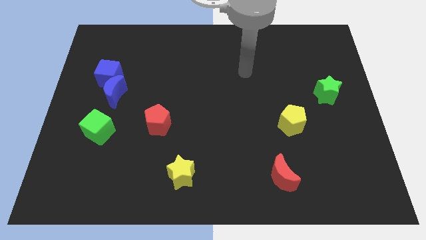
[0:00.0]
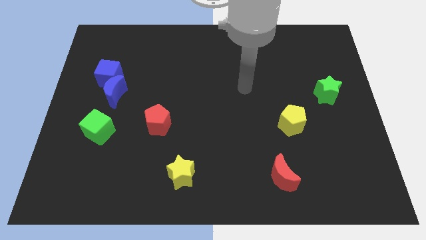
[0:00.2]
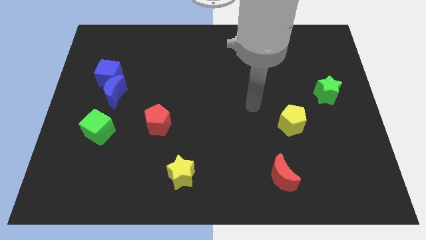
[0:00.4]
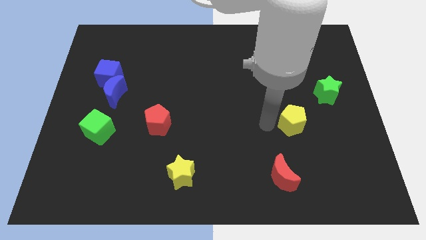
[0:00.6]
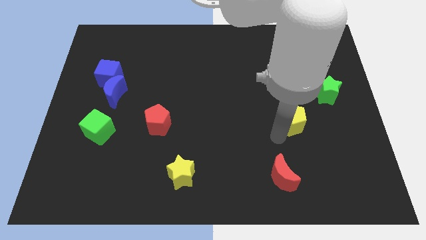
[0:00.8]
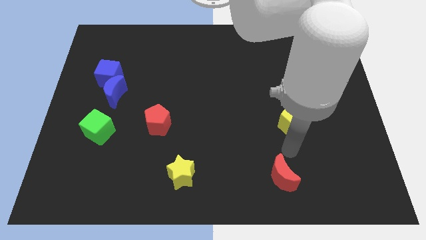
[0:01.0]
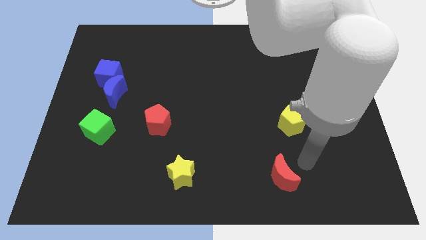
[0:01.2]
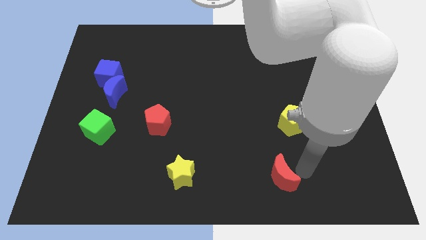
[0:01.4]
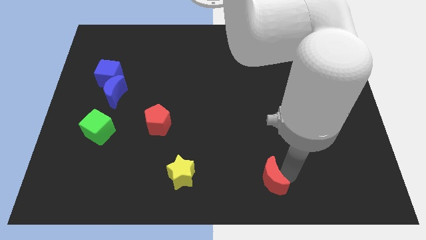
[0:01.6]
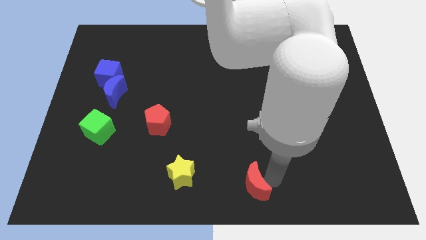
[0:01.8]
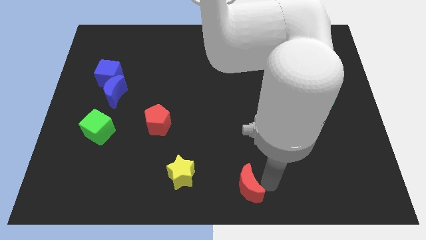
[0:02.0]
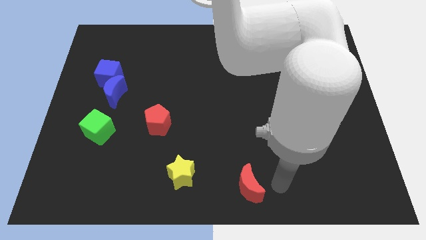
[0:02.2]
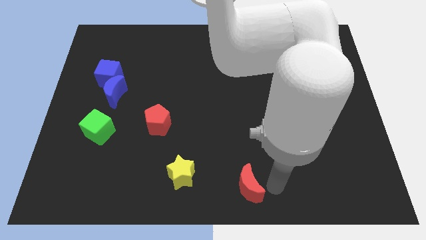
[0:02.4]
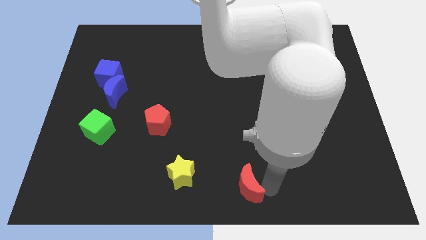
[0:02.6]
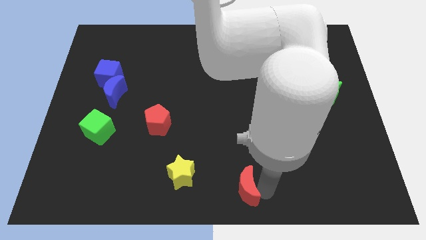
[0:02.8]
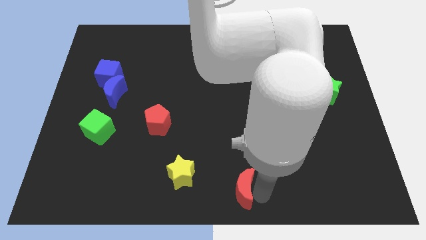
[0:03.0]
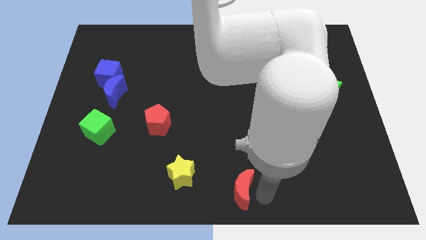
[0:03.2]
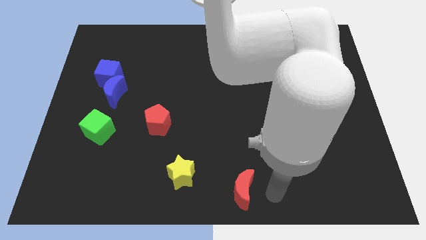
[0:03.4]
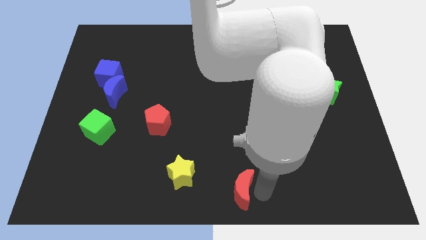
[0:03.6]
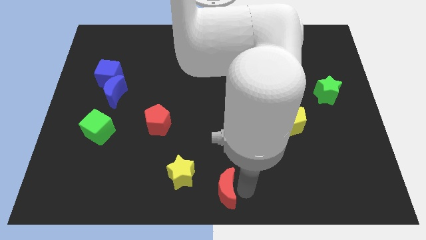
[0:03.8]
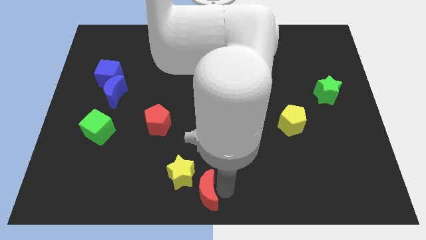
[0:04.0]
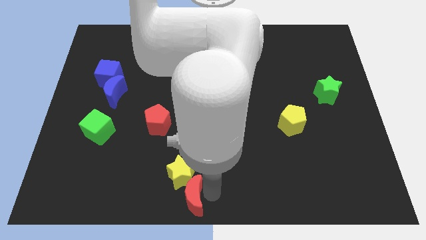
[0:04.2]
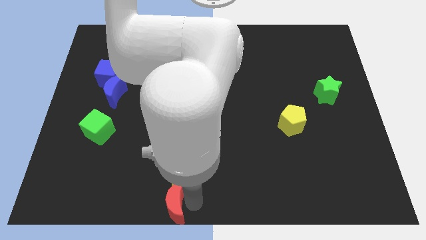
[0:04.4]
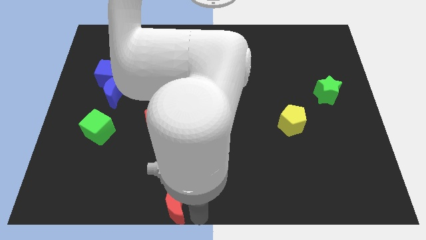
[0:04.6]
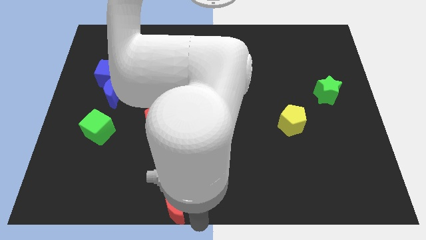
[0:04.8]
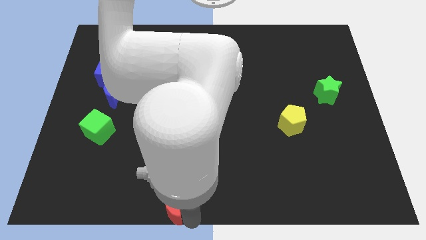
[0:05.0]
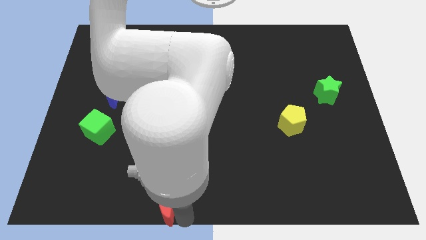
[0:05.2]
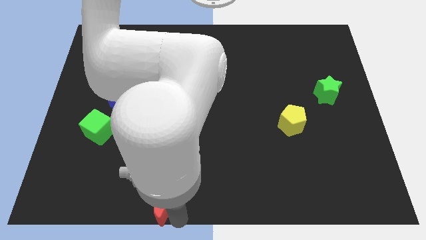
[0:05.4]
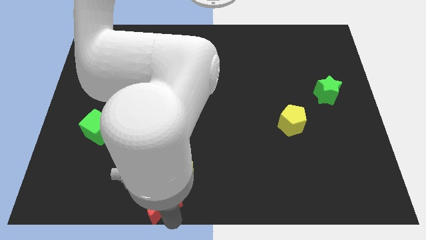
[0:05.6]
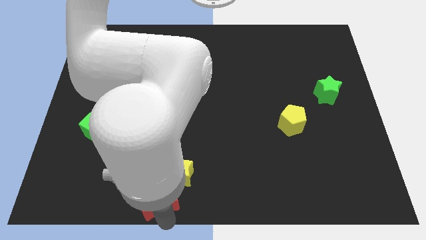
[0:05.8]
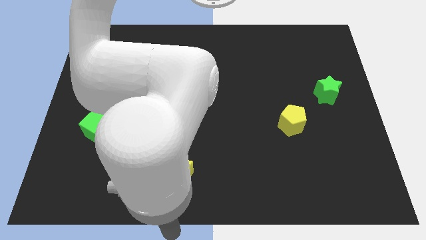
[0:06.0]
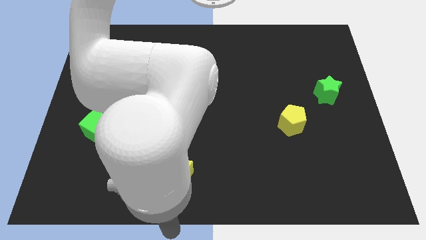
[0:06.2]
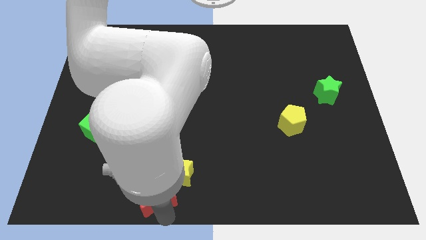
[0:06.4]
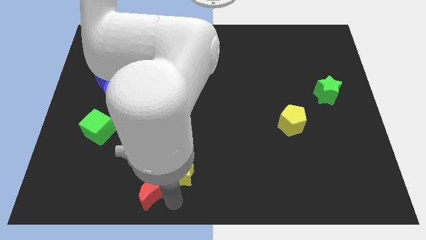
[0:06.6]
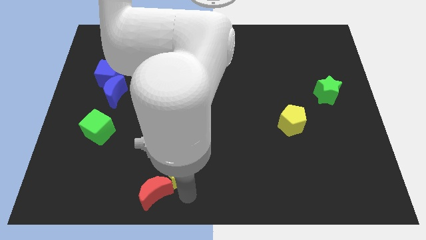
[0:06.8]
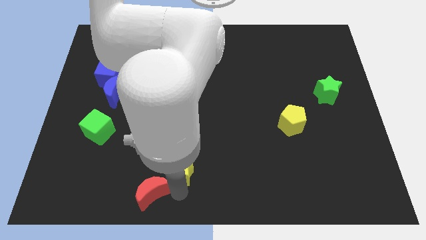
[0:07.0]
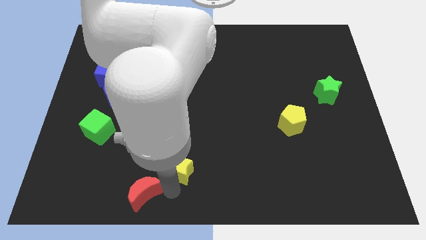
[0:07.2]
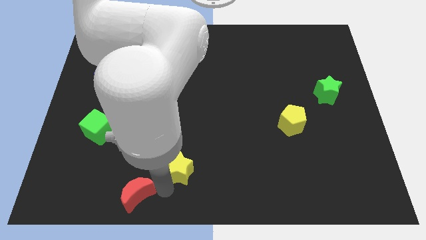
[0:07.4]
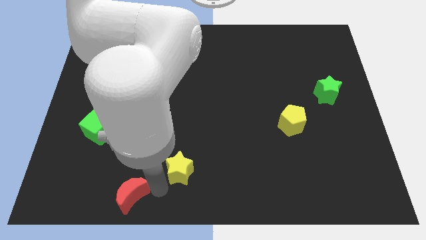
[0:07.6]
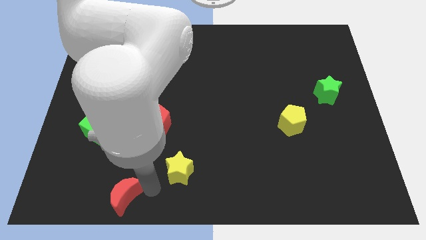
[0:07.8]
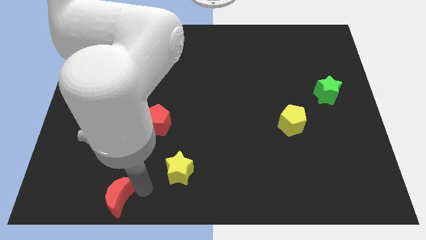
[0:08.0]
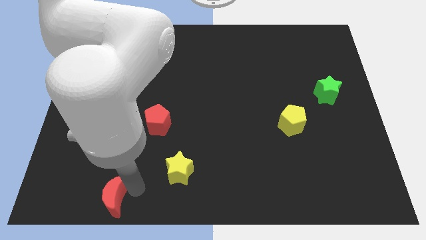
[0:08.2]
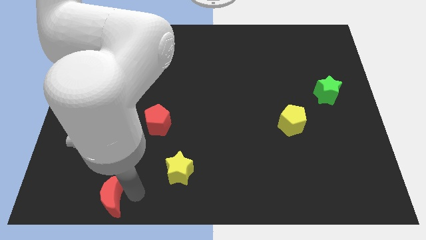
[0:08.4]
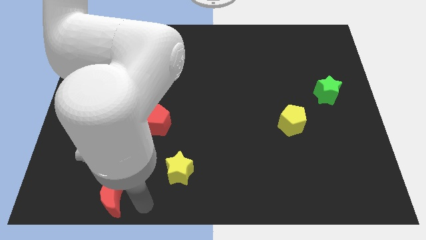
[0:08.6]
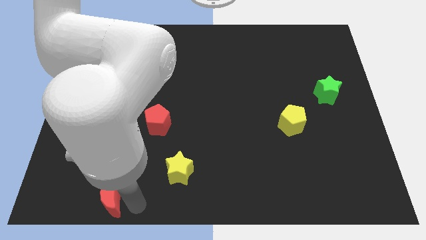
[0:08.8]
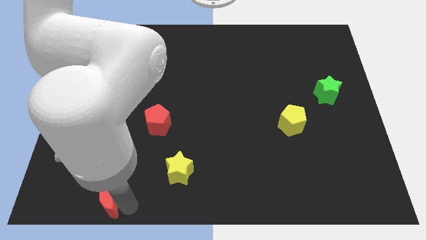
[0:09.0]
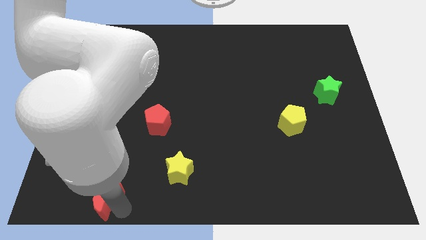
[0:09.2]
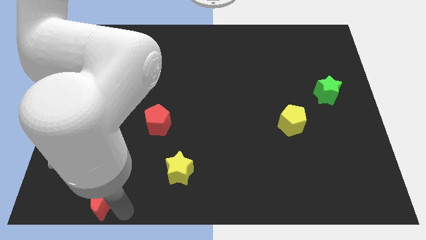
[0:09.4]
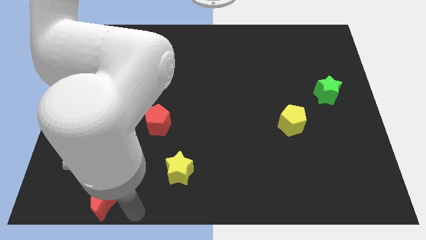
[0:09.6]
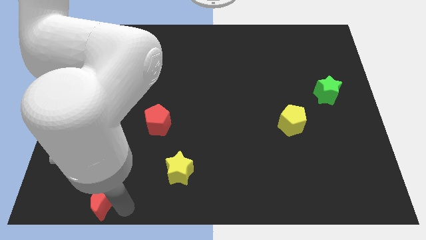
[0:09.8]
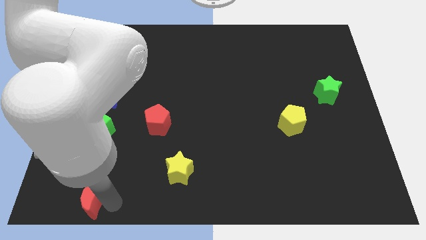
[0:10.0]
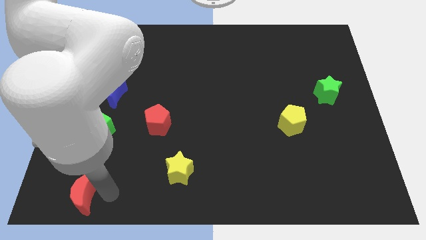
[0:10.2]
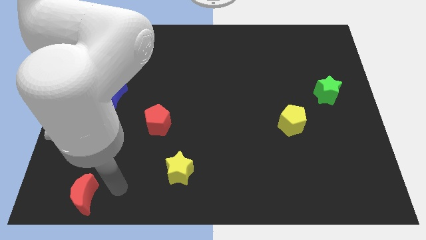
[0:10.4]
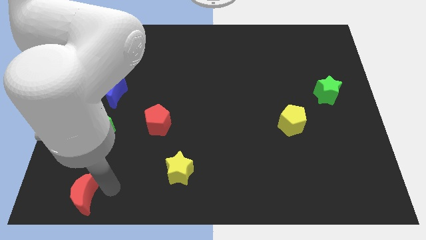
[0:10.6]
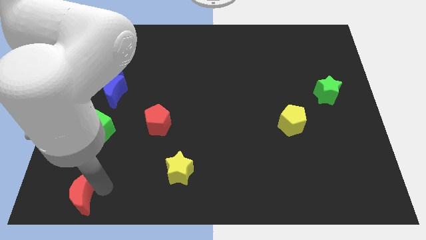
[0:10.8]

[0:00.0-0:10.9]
slide the red moon to the bottom left corner

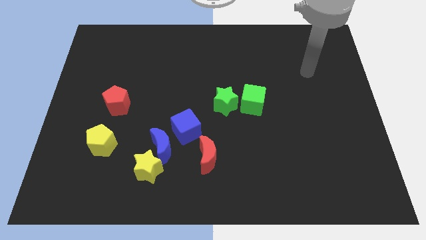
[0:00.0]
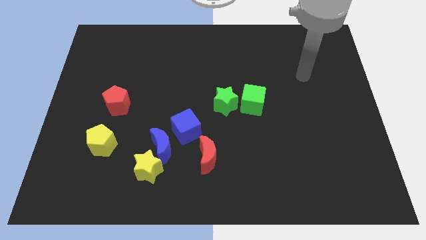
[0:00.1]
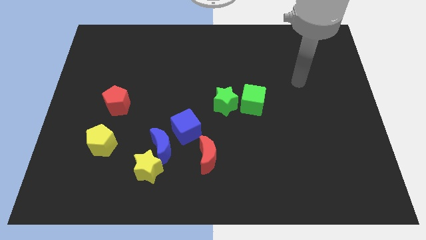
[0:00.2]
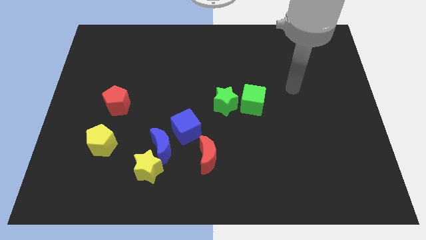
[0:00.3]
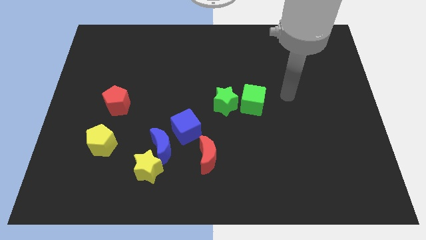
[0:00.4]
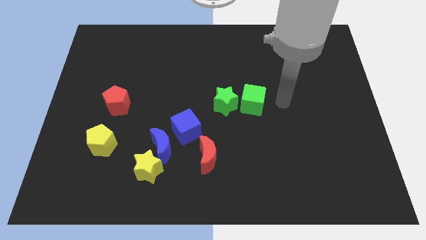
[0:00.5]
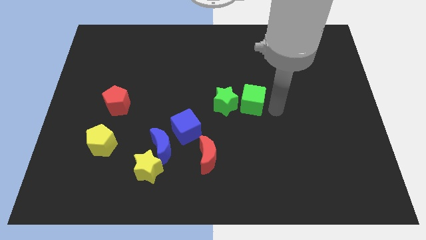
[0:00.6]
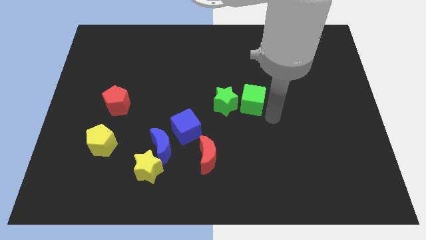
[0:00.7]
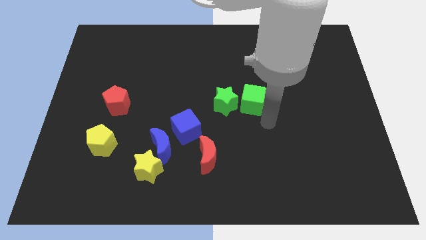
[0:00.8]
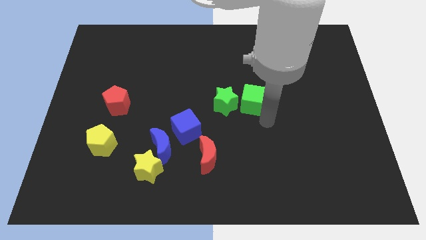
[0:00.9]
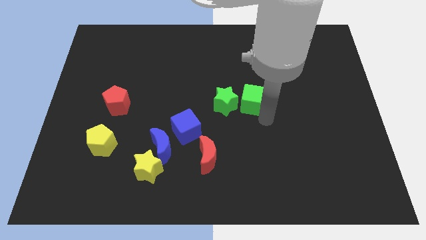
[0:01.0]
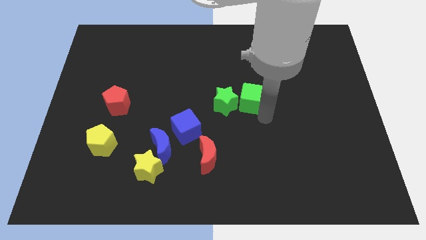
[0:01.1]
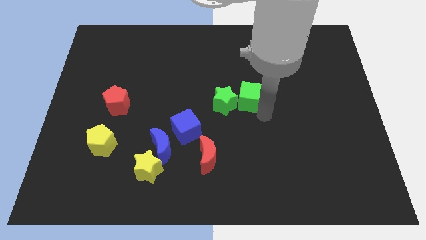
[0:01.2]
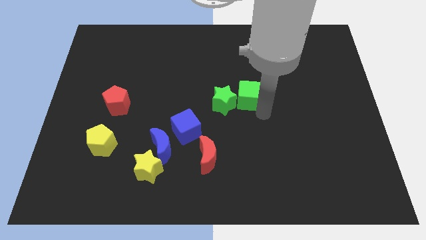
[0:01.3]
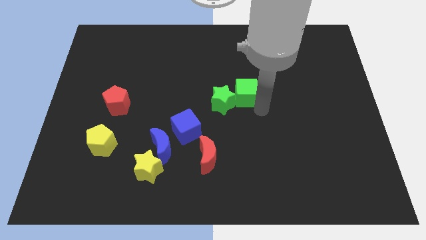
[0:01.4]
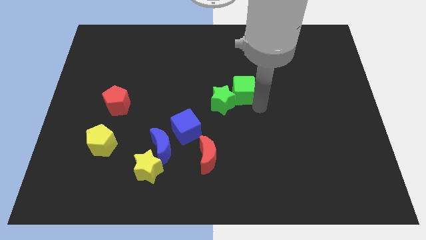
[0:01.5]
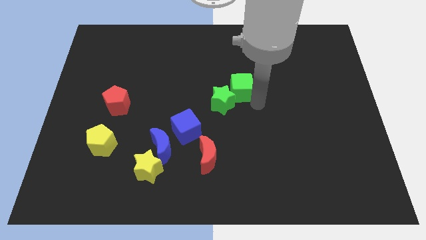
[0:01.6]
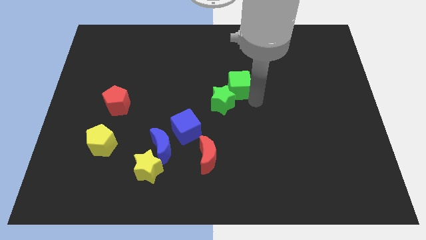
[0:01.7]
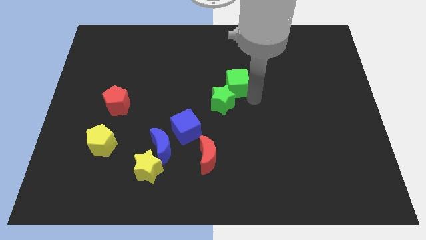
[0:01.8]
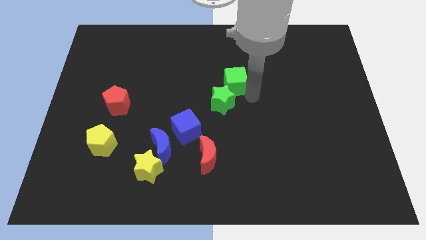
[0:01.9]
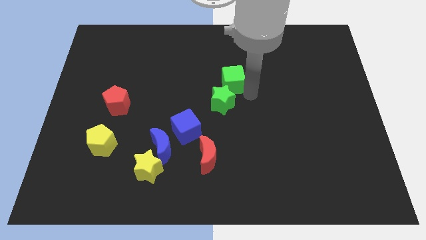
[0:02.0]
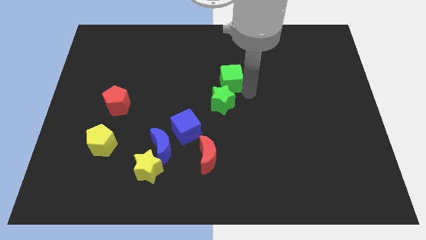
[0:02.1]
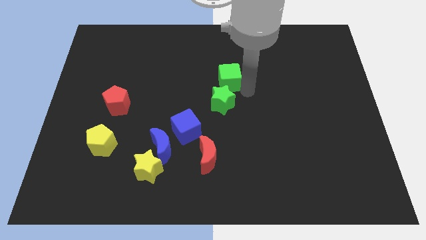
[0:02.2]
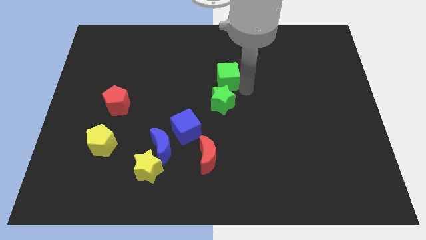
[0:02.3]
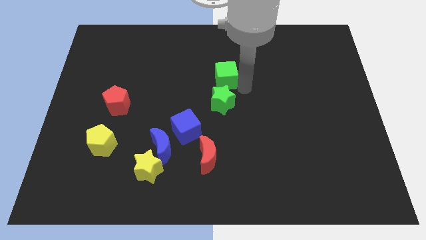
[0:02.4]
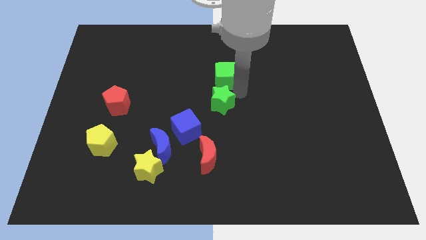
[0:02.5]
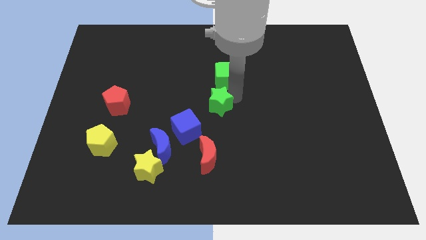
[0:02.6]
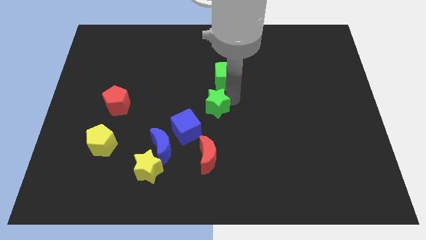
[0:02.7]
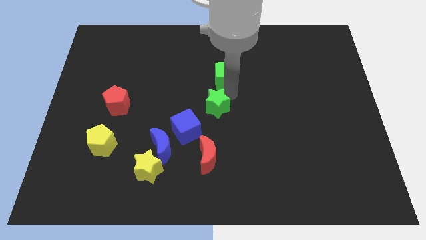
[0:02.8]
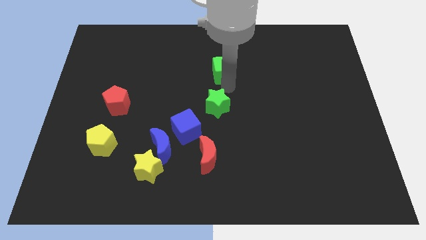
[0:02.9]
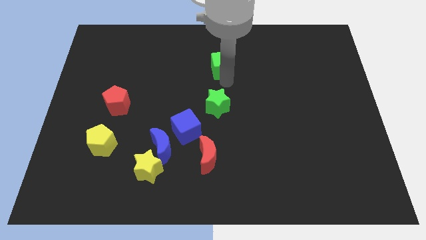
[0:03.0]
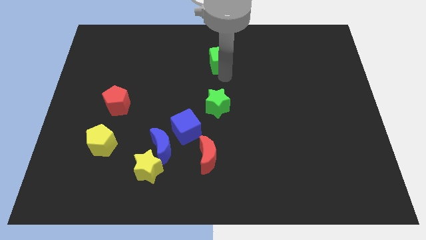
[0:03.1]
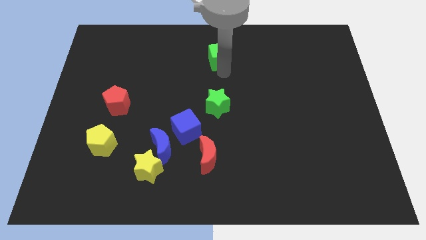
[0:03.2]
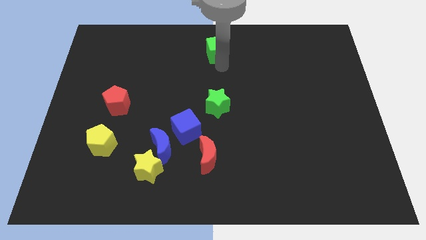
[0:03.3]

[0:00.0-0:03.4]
move the green cube to the top side
